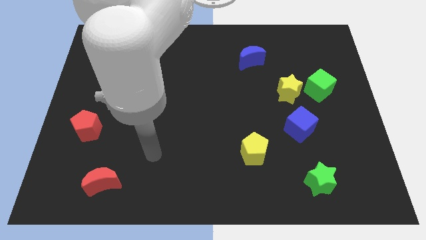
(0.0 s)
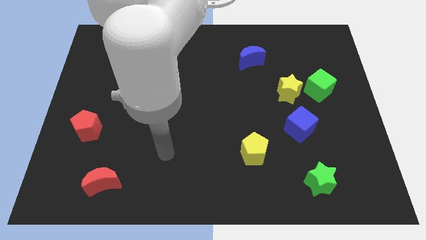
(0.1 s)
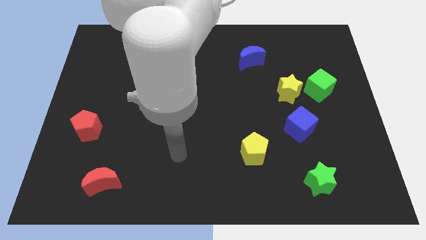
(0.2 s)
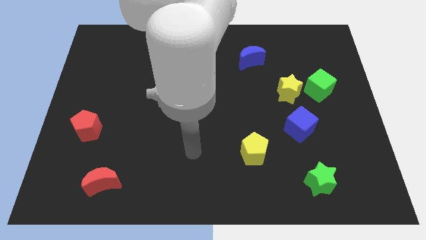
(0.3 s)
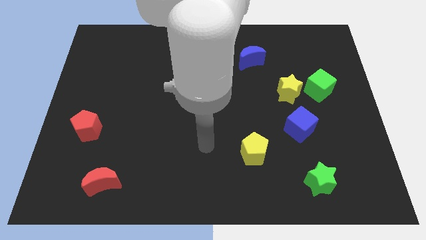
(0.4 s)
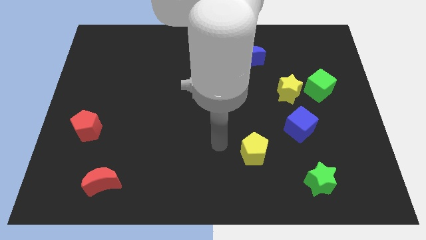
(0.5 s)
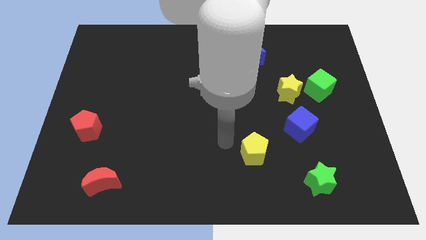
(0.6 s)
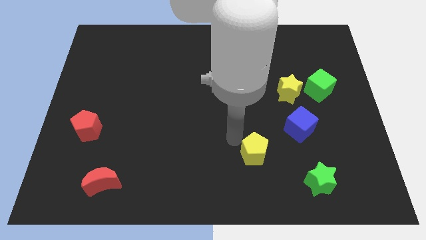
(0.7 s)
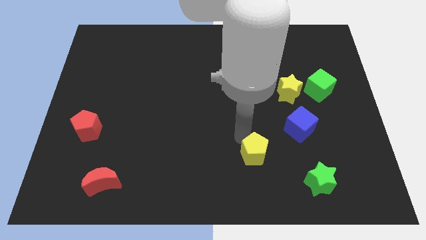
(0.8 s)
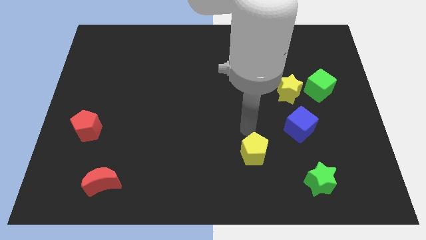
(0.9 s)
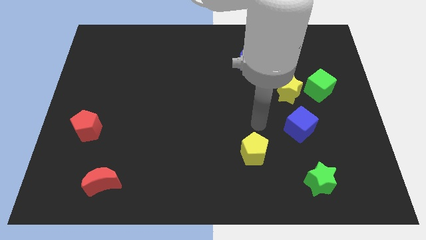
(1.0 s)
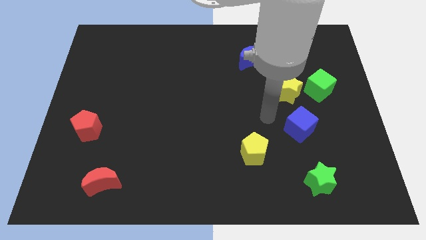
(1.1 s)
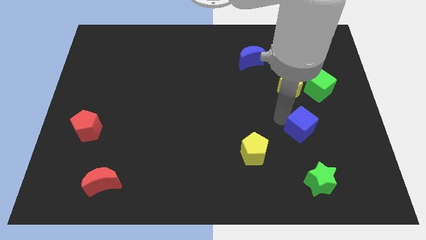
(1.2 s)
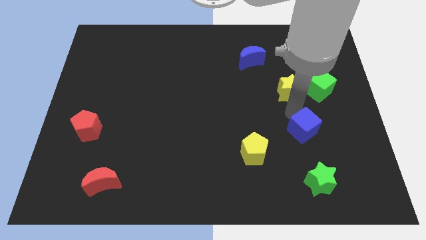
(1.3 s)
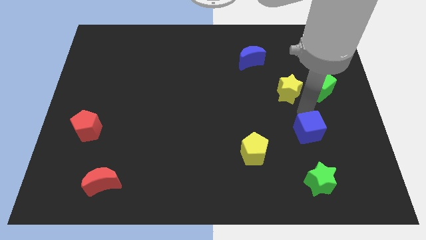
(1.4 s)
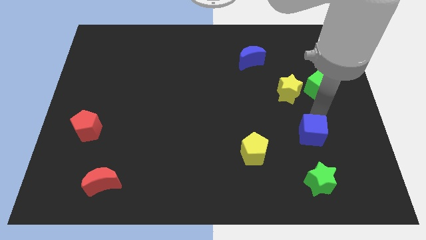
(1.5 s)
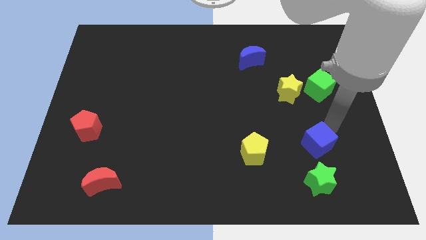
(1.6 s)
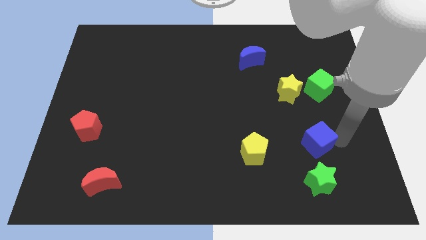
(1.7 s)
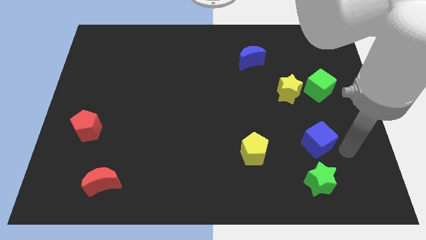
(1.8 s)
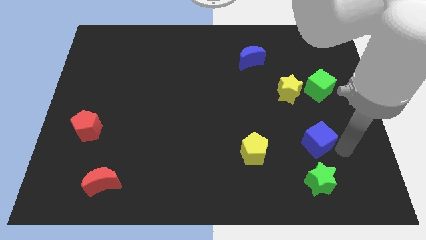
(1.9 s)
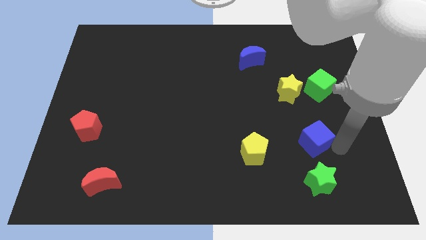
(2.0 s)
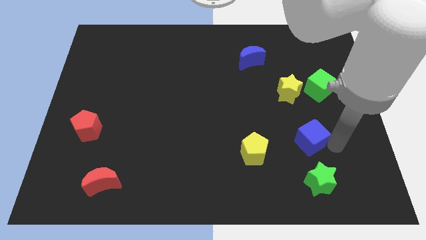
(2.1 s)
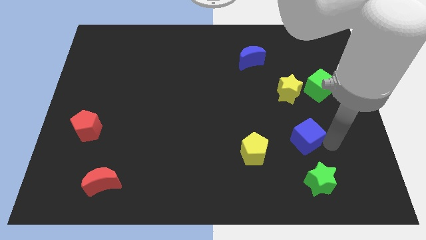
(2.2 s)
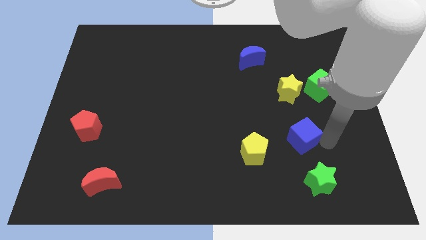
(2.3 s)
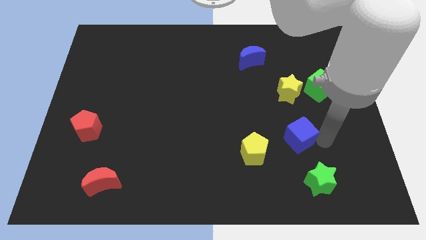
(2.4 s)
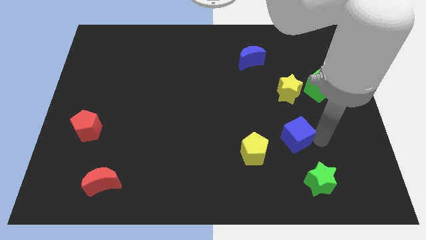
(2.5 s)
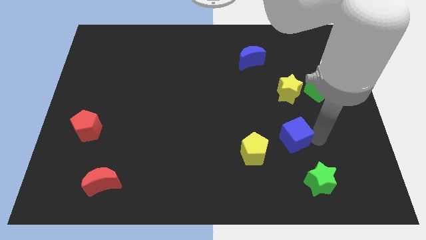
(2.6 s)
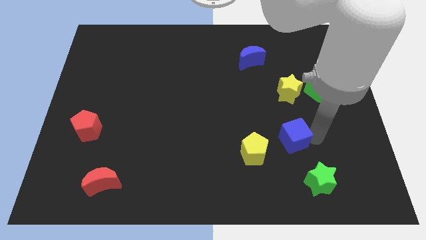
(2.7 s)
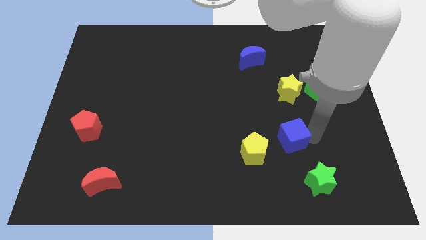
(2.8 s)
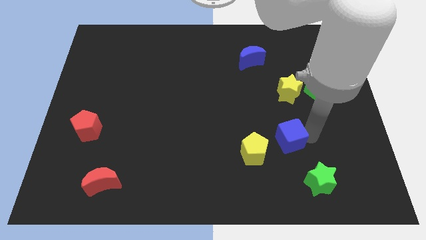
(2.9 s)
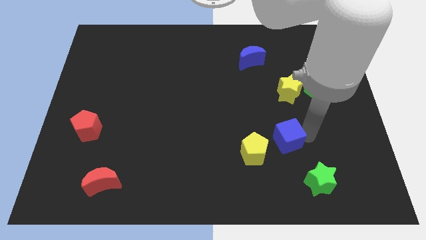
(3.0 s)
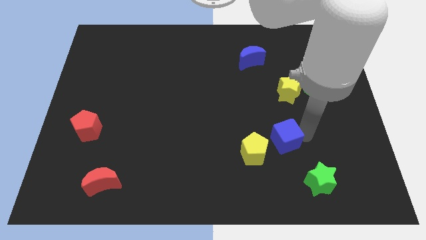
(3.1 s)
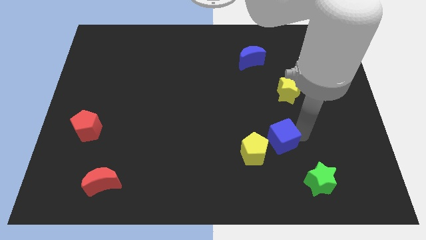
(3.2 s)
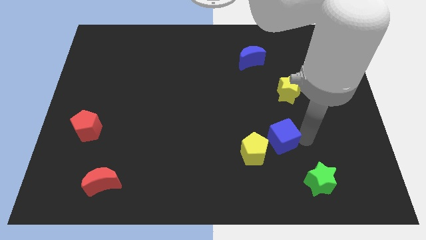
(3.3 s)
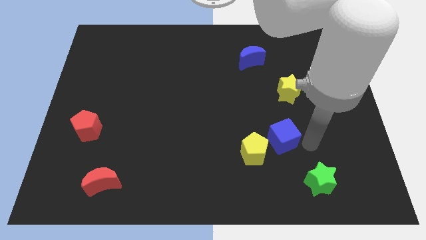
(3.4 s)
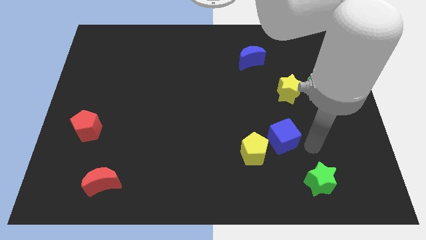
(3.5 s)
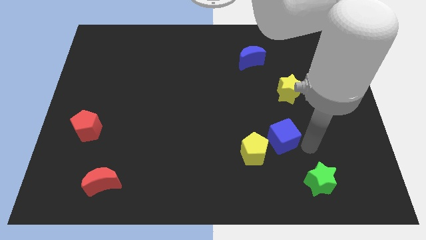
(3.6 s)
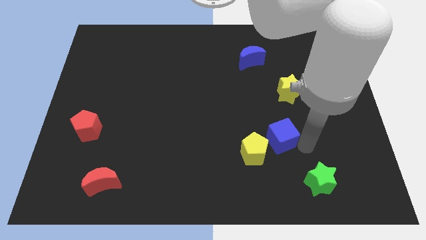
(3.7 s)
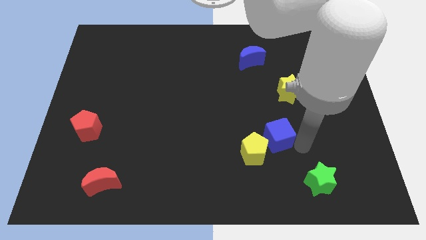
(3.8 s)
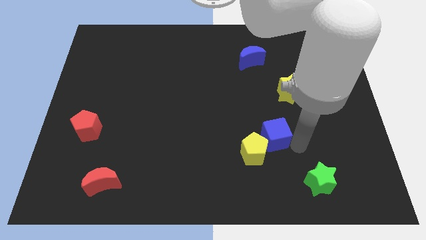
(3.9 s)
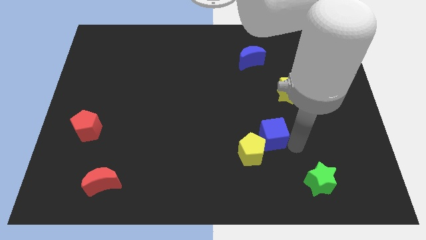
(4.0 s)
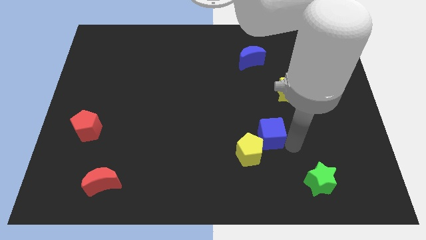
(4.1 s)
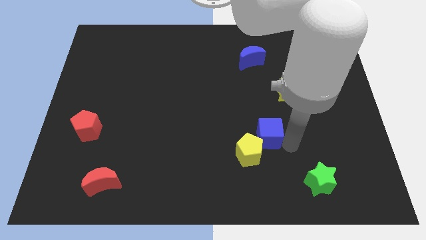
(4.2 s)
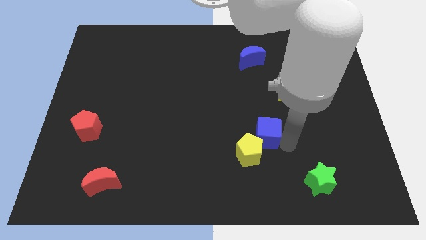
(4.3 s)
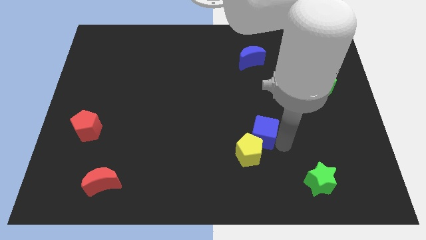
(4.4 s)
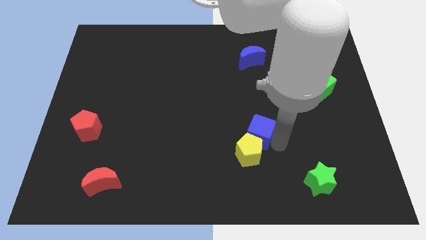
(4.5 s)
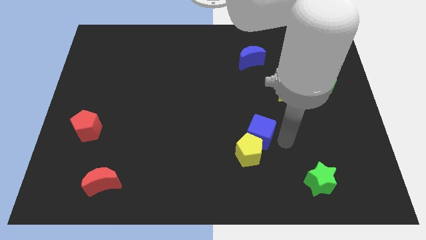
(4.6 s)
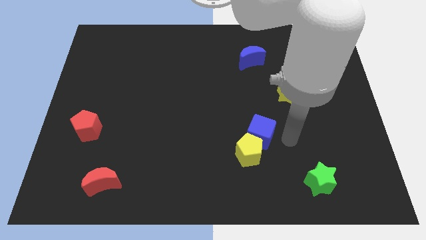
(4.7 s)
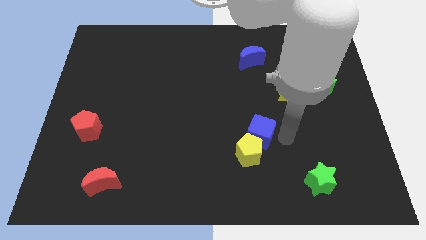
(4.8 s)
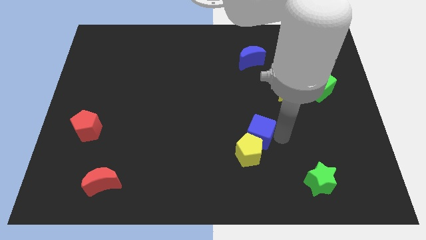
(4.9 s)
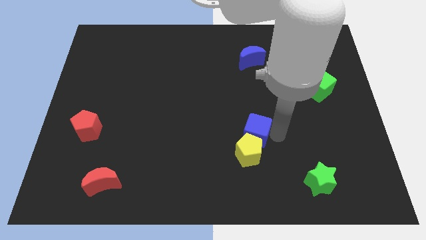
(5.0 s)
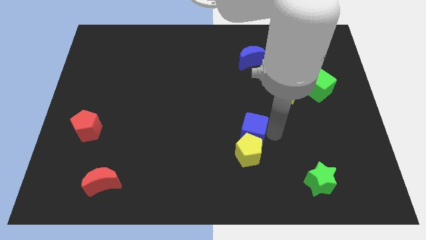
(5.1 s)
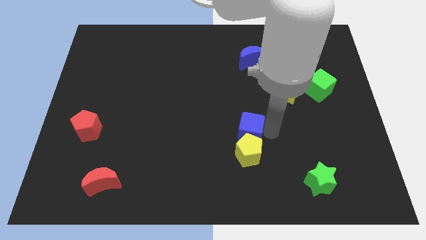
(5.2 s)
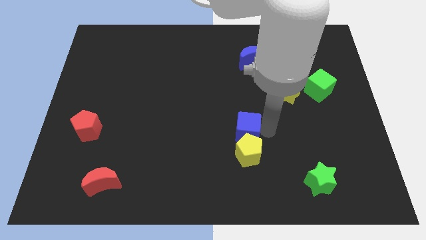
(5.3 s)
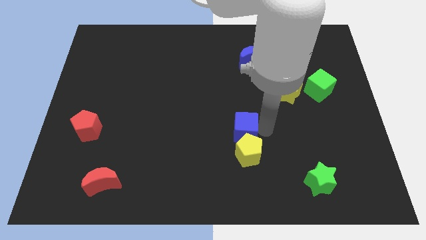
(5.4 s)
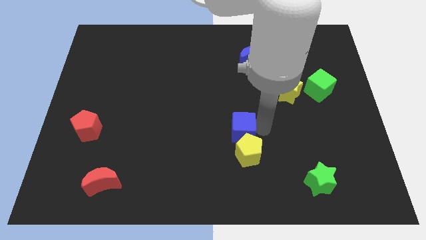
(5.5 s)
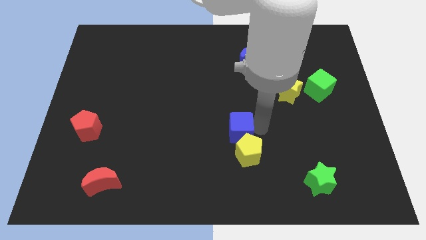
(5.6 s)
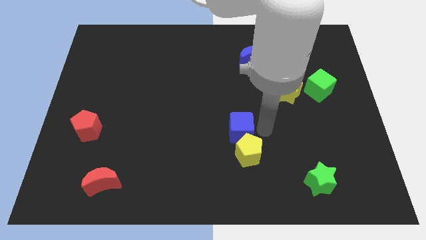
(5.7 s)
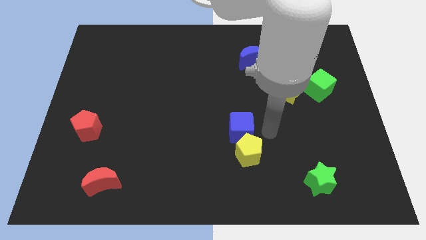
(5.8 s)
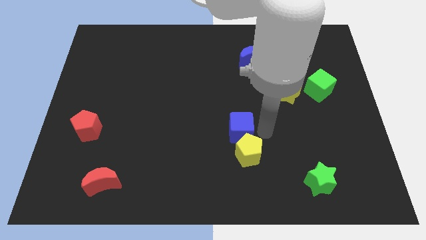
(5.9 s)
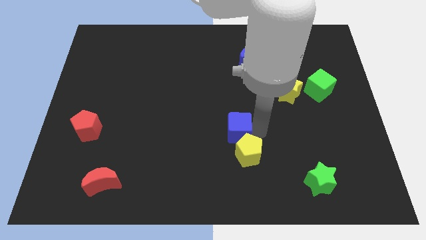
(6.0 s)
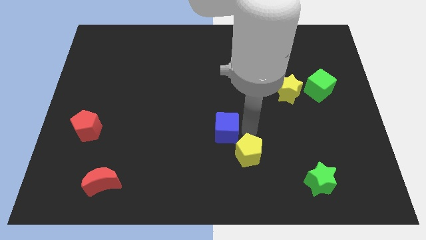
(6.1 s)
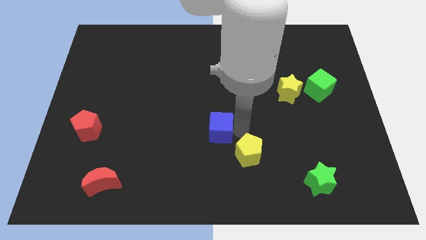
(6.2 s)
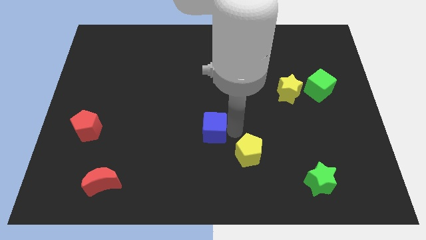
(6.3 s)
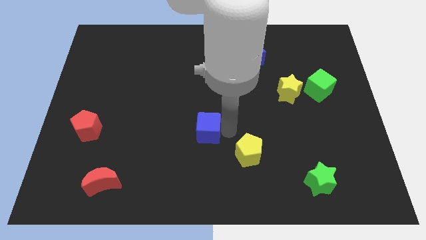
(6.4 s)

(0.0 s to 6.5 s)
push the blue cube to the left

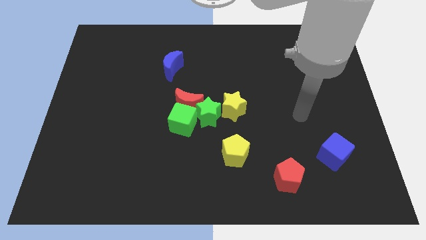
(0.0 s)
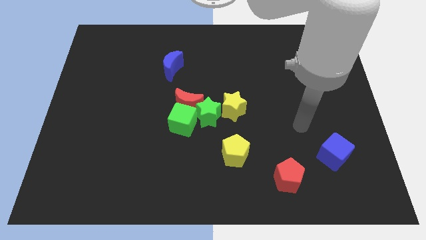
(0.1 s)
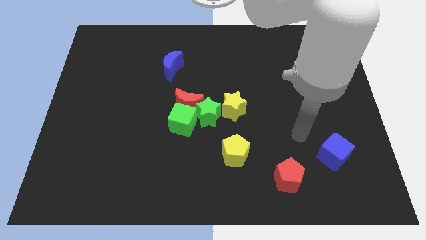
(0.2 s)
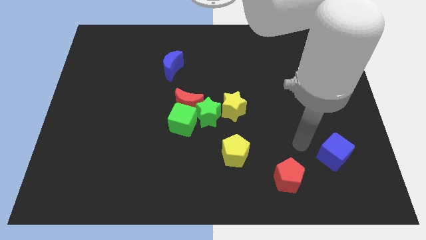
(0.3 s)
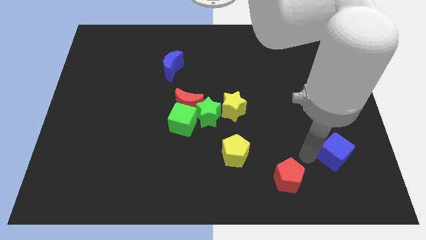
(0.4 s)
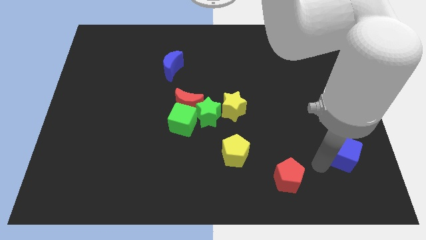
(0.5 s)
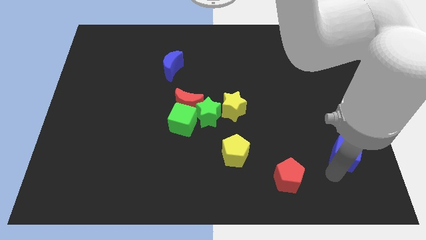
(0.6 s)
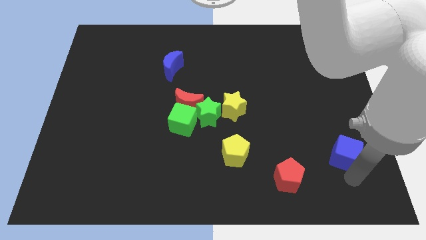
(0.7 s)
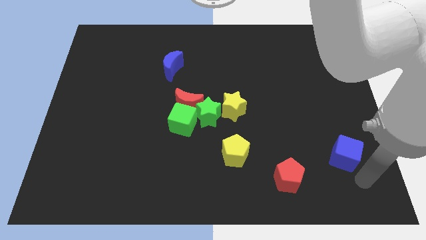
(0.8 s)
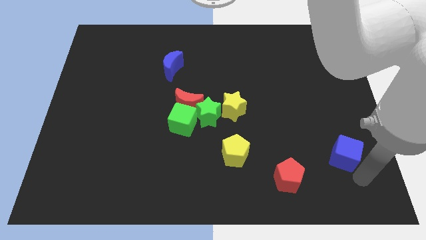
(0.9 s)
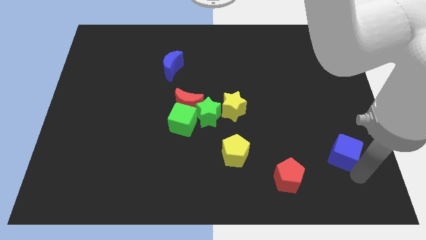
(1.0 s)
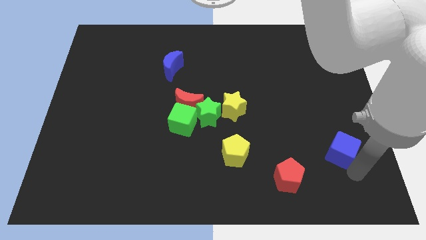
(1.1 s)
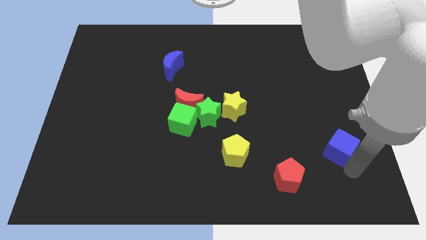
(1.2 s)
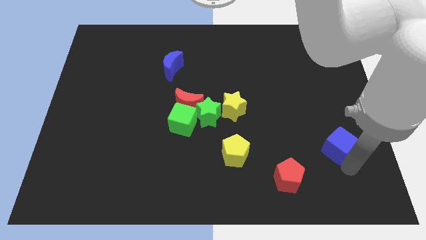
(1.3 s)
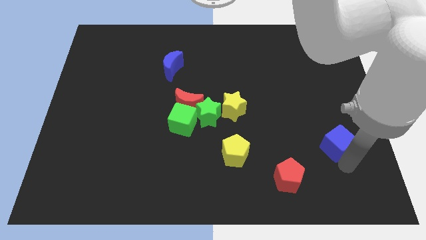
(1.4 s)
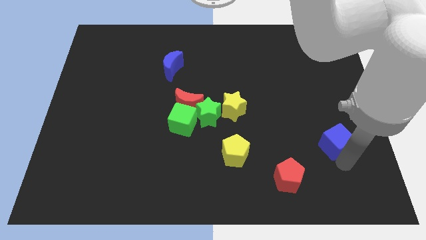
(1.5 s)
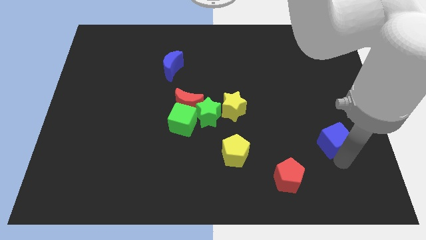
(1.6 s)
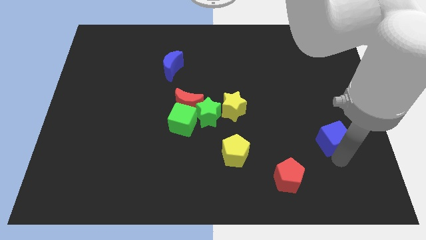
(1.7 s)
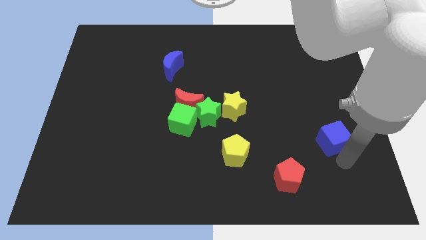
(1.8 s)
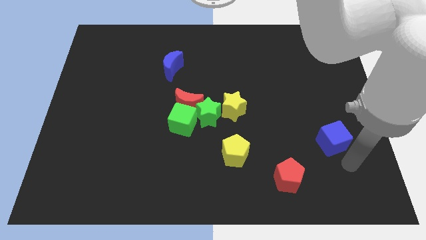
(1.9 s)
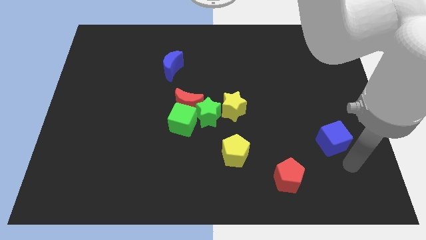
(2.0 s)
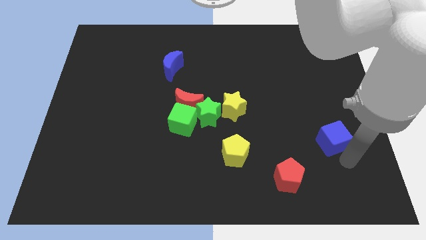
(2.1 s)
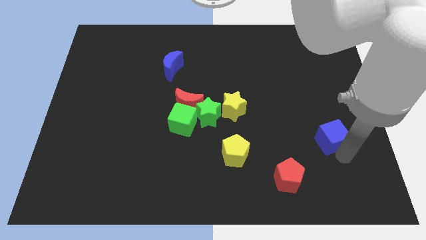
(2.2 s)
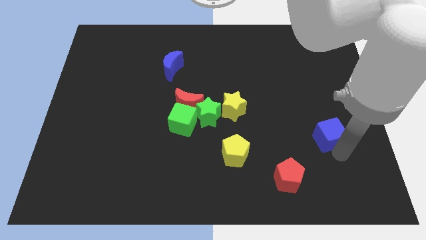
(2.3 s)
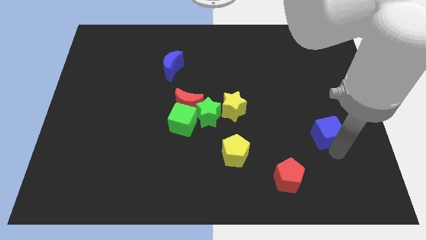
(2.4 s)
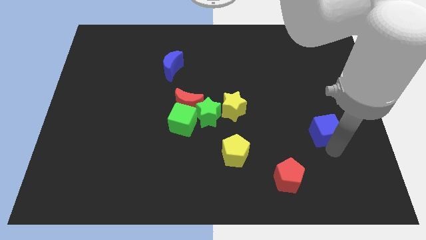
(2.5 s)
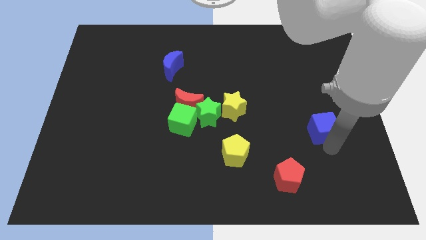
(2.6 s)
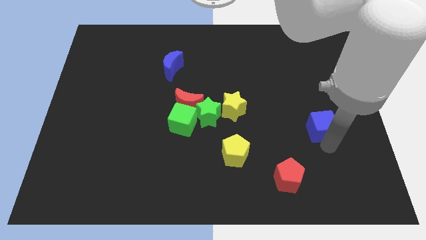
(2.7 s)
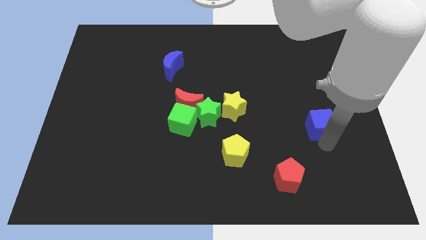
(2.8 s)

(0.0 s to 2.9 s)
slightly push the blue cube up
